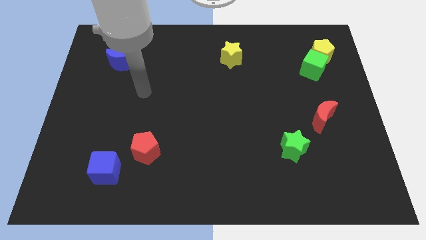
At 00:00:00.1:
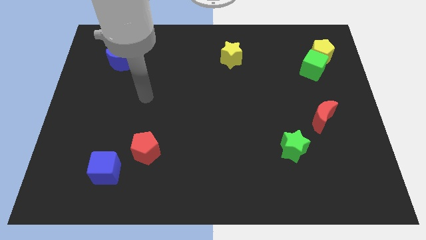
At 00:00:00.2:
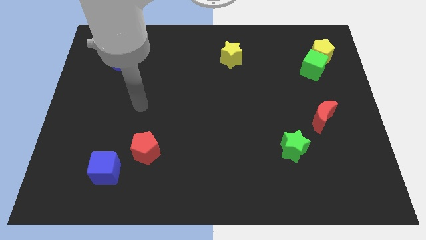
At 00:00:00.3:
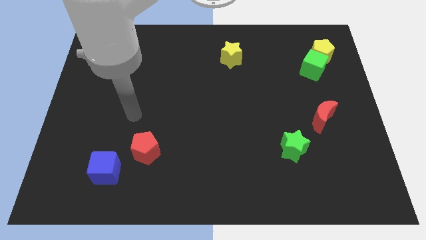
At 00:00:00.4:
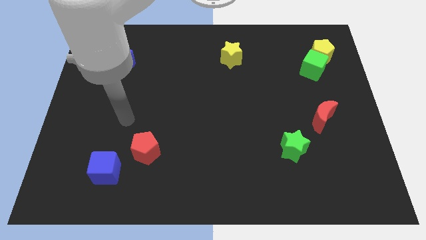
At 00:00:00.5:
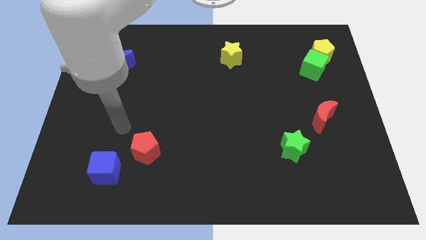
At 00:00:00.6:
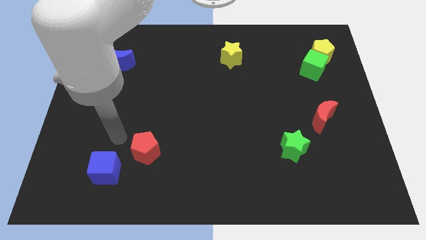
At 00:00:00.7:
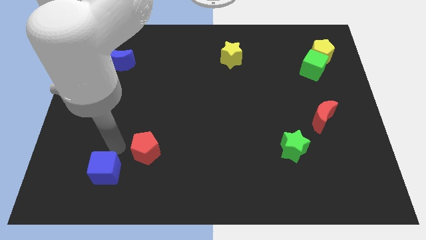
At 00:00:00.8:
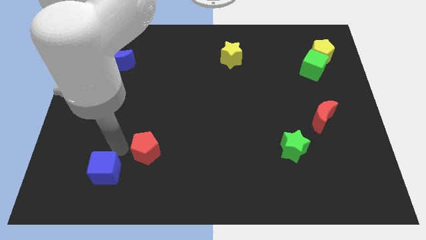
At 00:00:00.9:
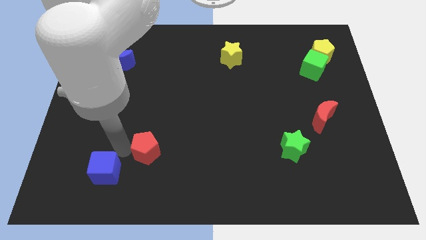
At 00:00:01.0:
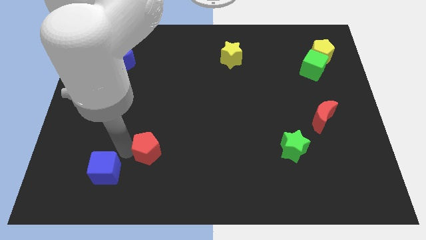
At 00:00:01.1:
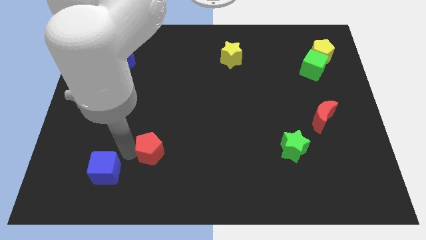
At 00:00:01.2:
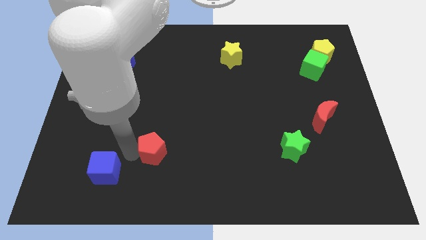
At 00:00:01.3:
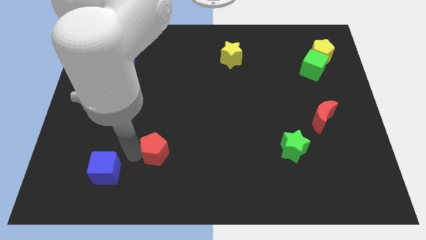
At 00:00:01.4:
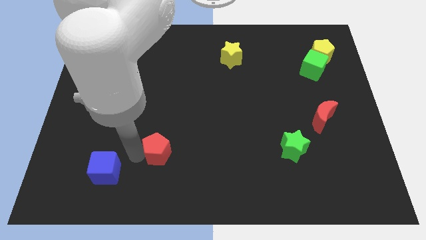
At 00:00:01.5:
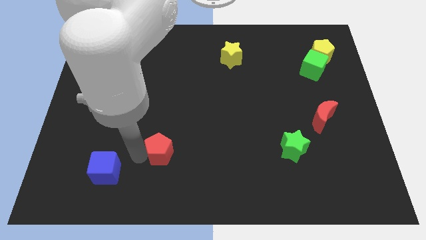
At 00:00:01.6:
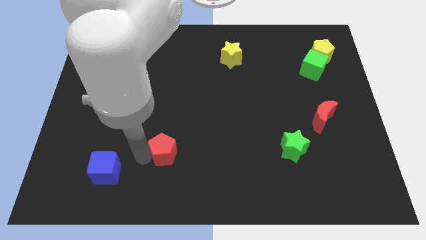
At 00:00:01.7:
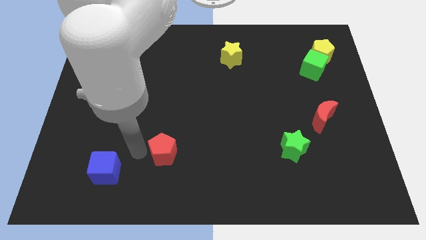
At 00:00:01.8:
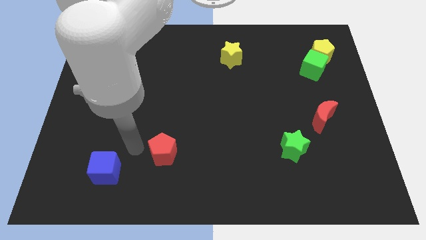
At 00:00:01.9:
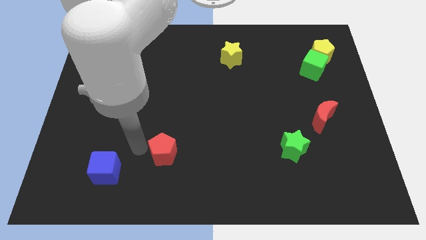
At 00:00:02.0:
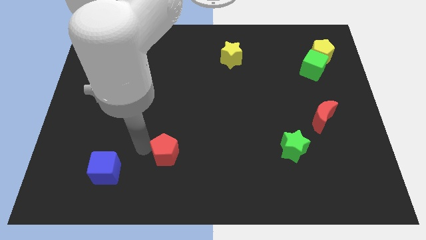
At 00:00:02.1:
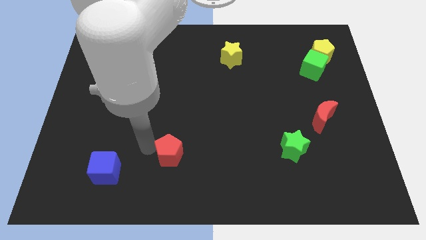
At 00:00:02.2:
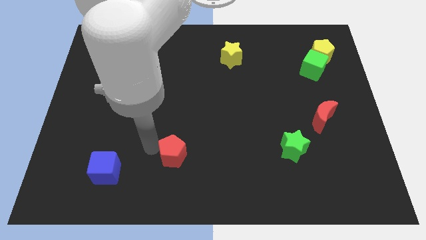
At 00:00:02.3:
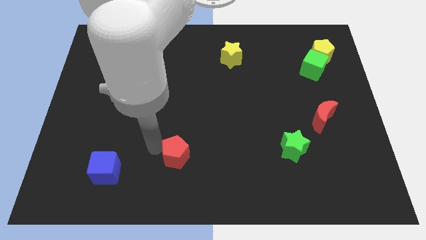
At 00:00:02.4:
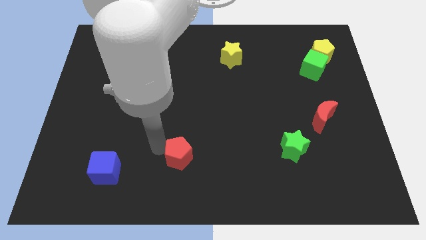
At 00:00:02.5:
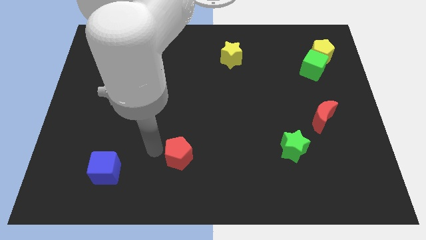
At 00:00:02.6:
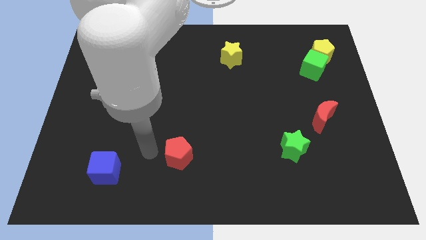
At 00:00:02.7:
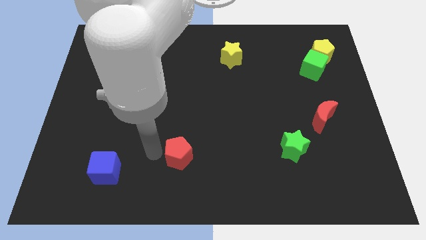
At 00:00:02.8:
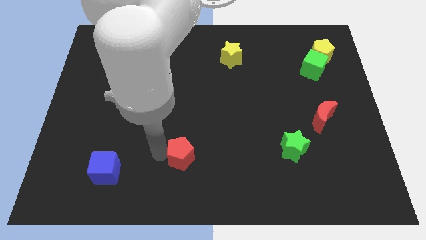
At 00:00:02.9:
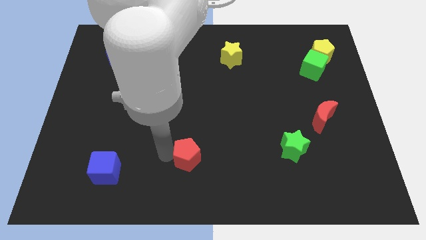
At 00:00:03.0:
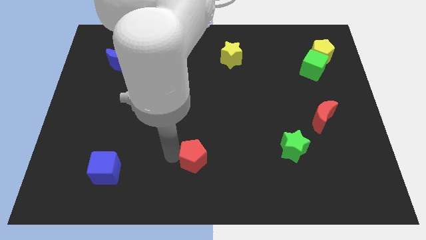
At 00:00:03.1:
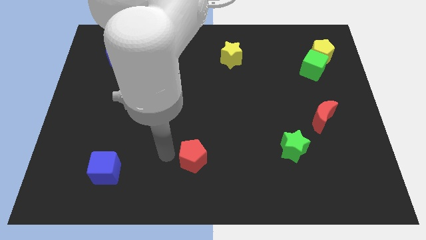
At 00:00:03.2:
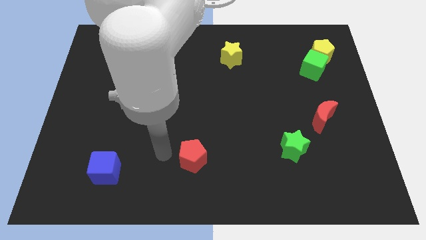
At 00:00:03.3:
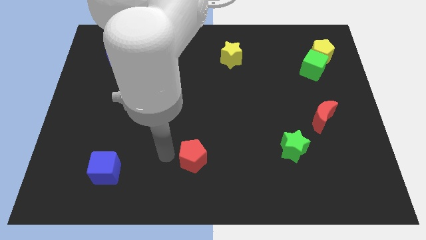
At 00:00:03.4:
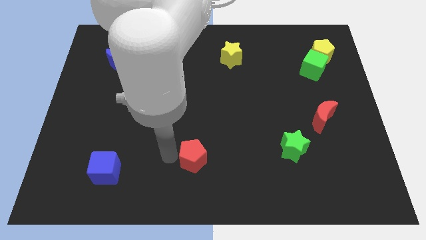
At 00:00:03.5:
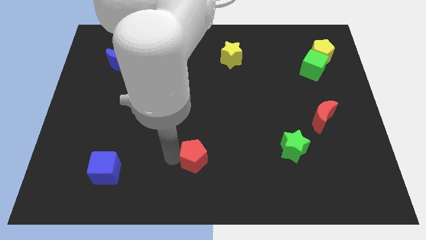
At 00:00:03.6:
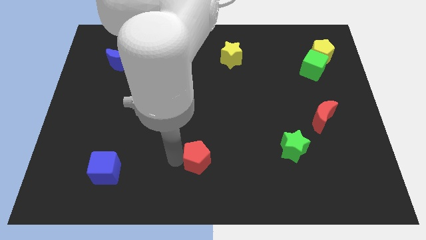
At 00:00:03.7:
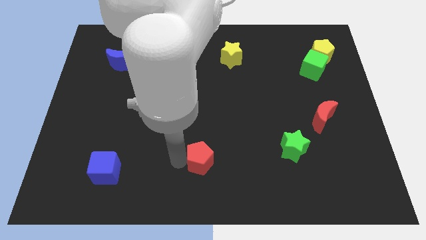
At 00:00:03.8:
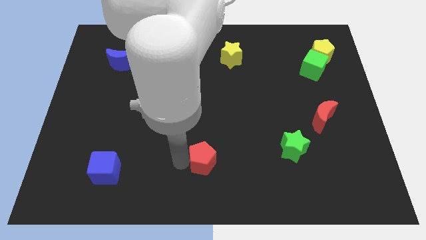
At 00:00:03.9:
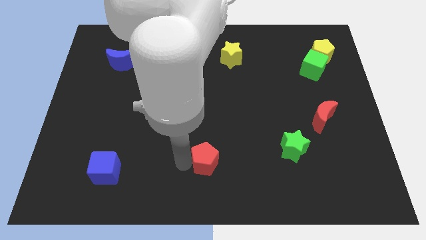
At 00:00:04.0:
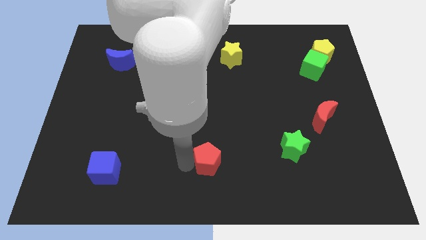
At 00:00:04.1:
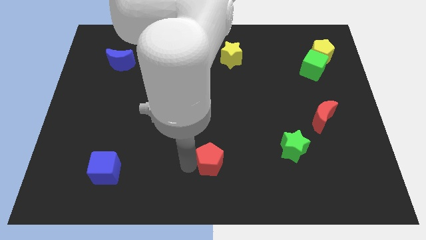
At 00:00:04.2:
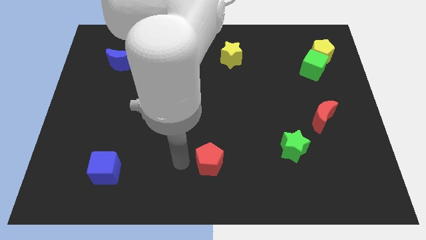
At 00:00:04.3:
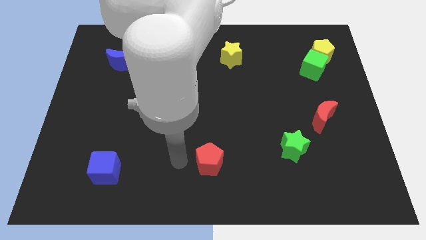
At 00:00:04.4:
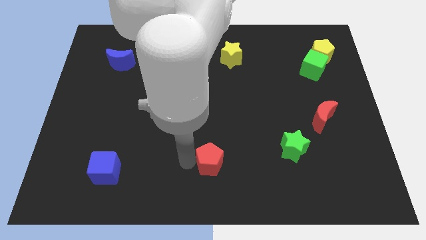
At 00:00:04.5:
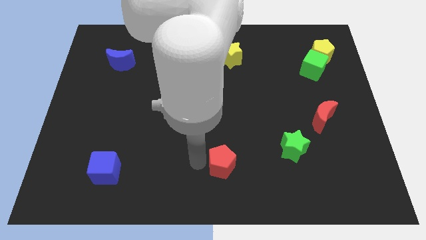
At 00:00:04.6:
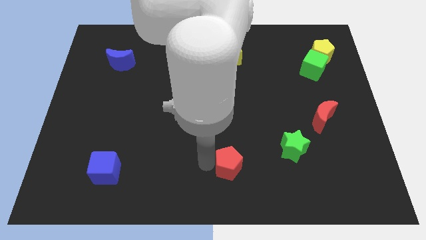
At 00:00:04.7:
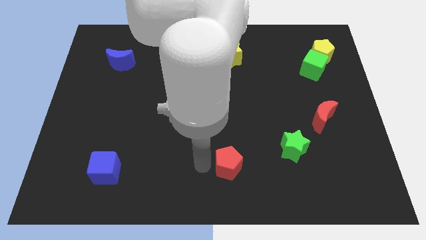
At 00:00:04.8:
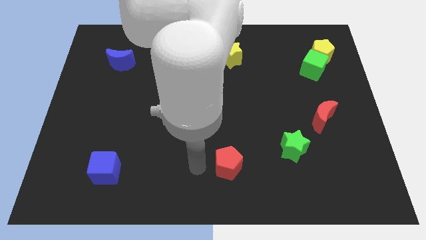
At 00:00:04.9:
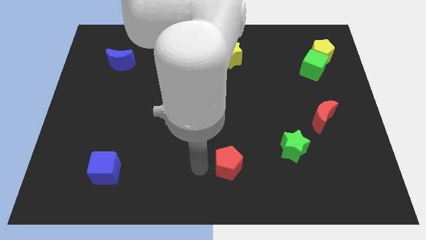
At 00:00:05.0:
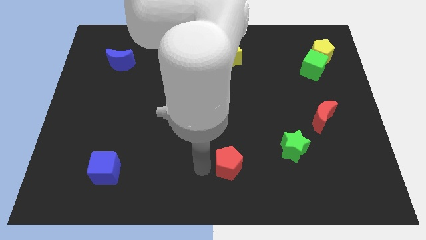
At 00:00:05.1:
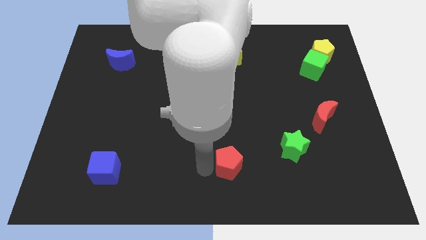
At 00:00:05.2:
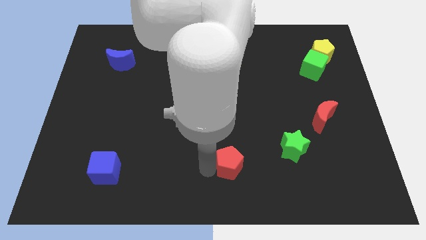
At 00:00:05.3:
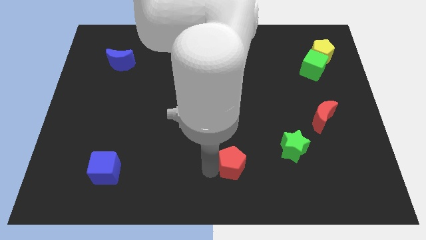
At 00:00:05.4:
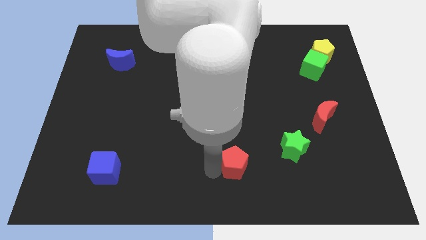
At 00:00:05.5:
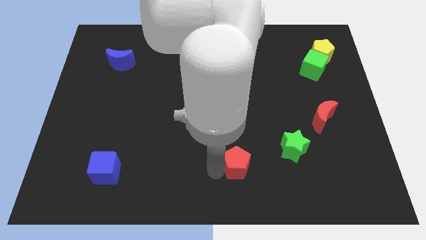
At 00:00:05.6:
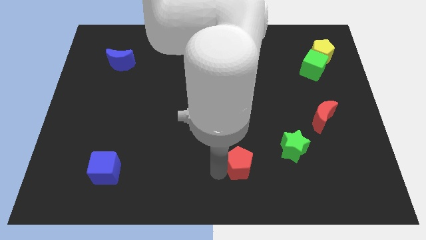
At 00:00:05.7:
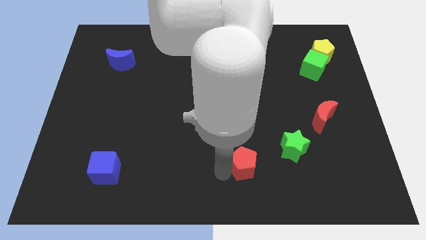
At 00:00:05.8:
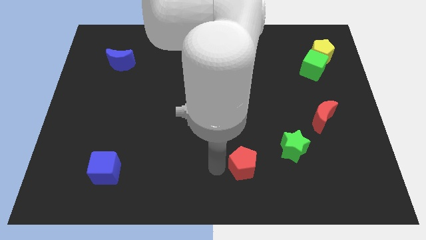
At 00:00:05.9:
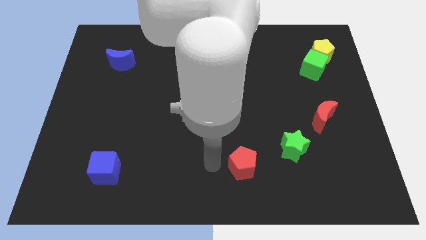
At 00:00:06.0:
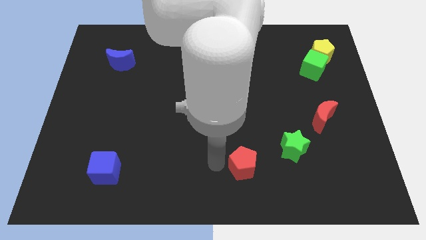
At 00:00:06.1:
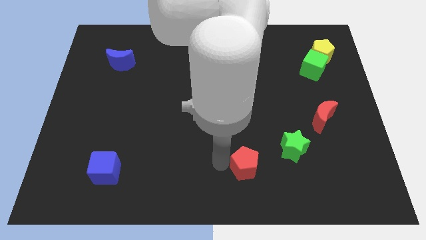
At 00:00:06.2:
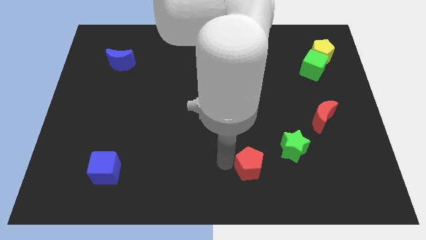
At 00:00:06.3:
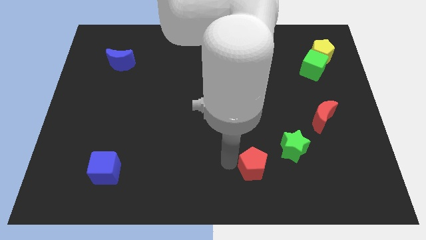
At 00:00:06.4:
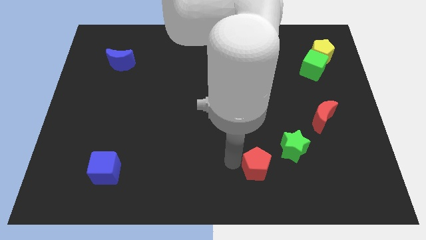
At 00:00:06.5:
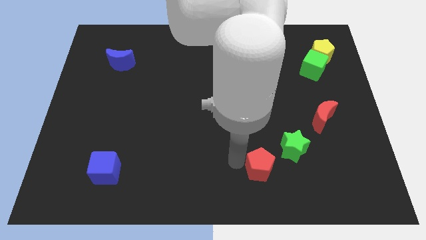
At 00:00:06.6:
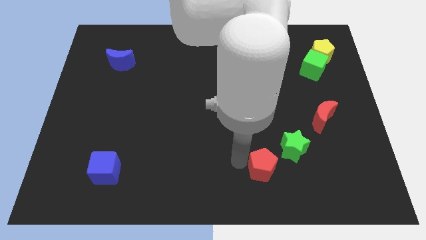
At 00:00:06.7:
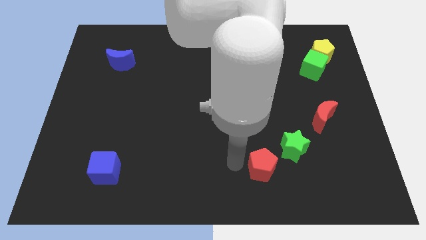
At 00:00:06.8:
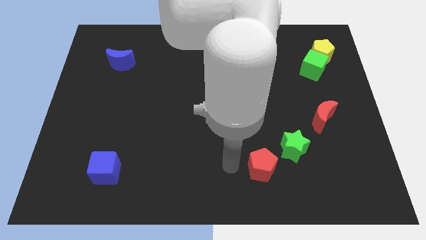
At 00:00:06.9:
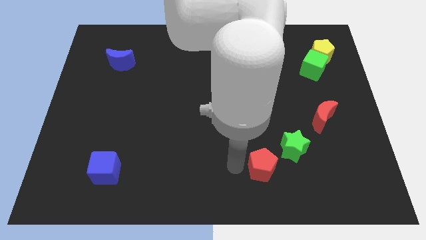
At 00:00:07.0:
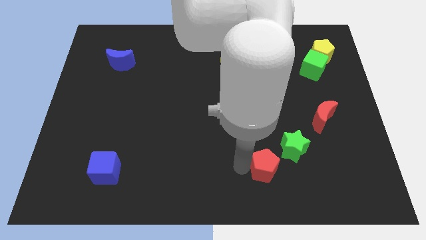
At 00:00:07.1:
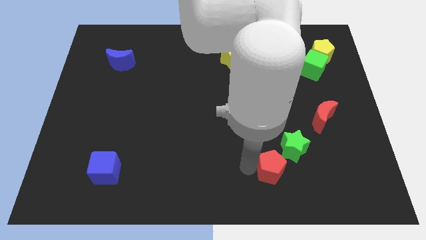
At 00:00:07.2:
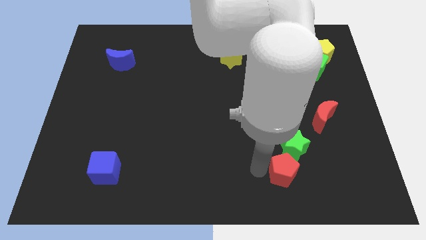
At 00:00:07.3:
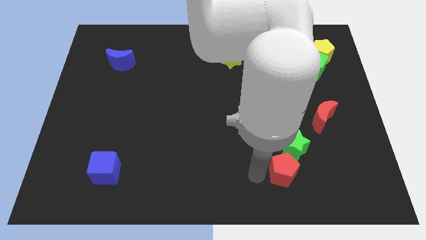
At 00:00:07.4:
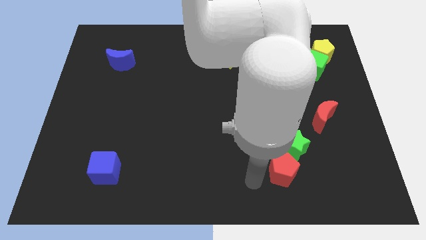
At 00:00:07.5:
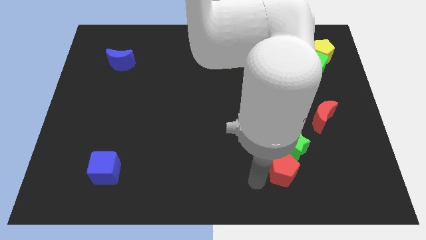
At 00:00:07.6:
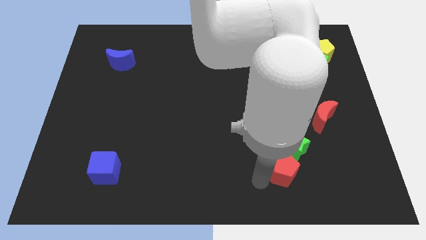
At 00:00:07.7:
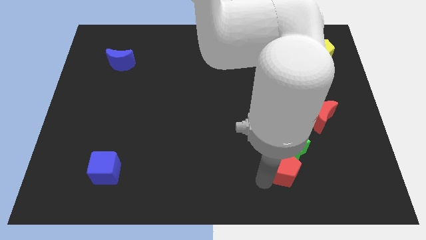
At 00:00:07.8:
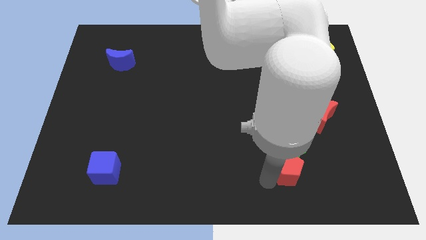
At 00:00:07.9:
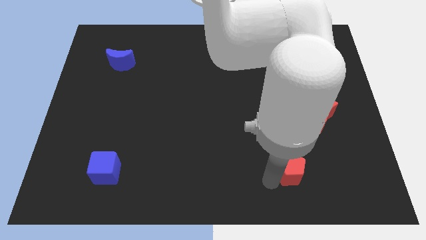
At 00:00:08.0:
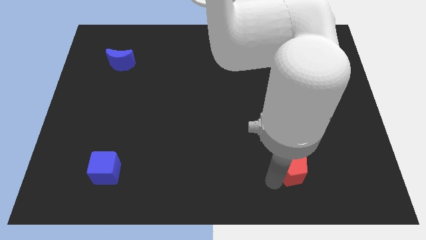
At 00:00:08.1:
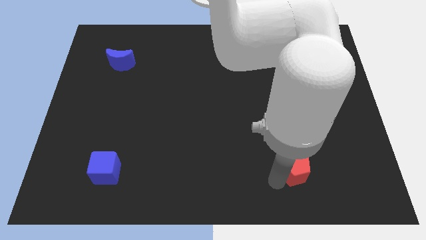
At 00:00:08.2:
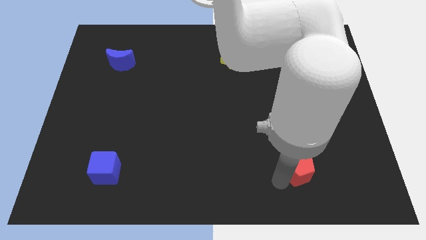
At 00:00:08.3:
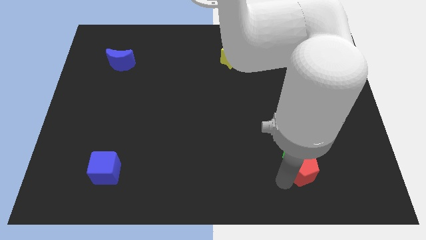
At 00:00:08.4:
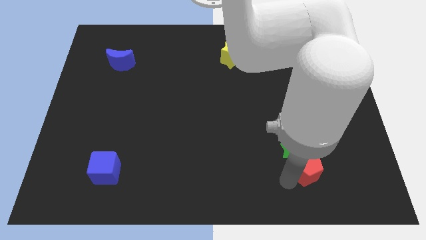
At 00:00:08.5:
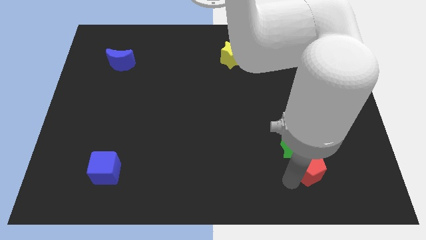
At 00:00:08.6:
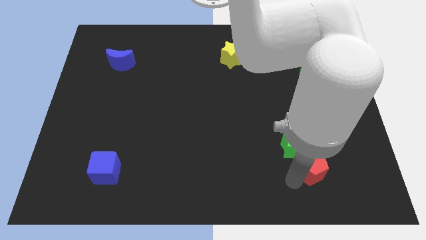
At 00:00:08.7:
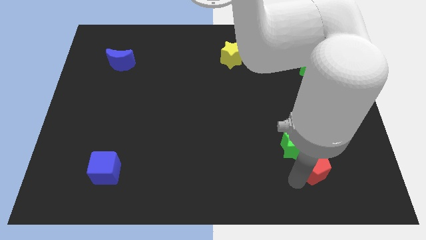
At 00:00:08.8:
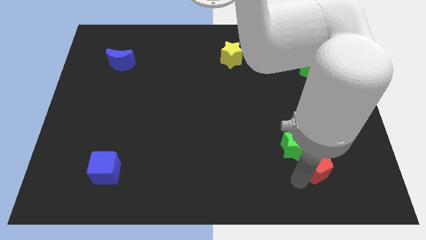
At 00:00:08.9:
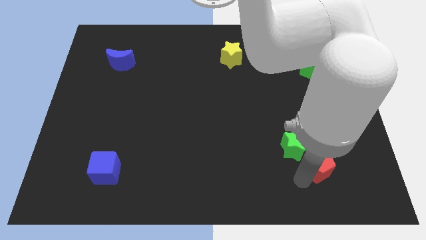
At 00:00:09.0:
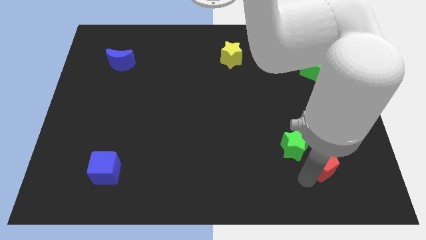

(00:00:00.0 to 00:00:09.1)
push the red pentagon to the right side of the green star
